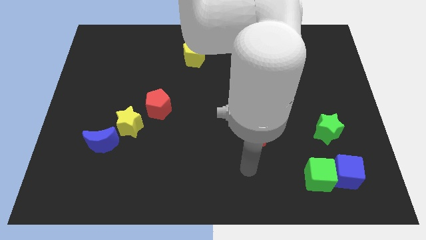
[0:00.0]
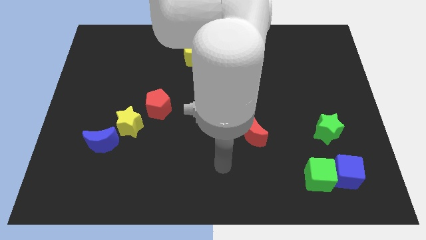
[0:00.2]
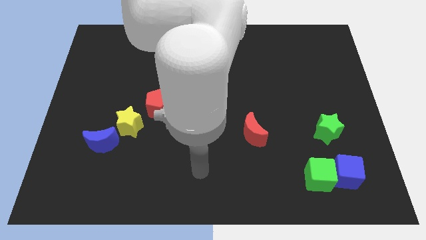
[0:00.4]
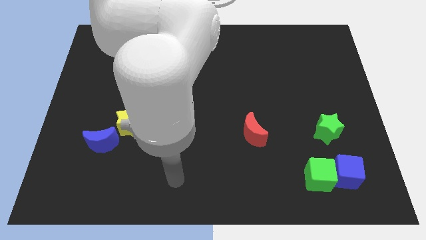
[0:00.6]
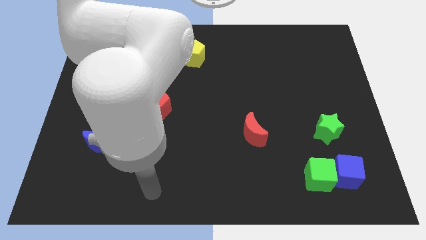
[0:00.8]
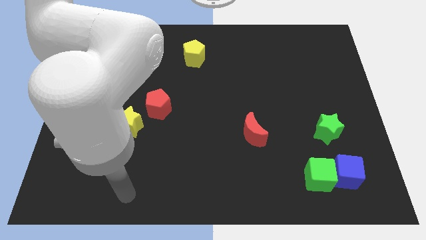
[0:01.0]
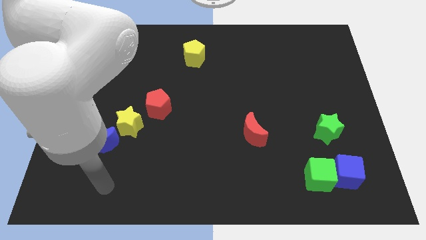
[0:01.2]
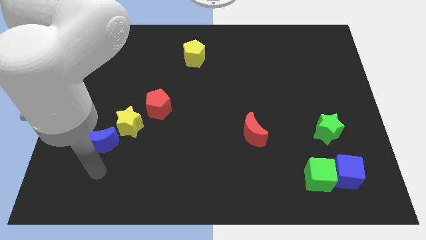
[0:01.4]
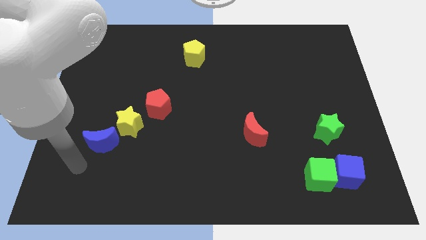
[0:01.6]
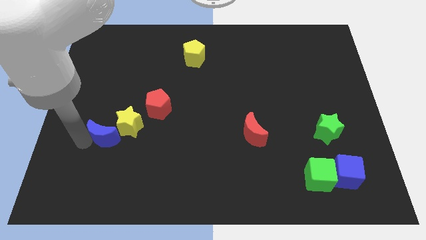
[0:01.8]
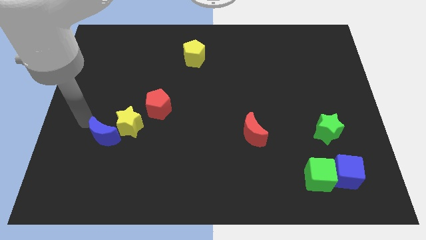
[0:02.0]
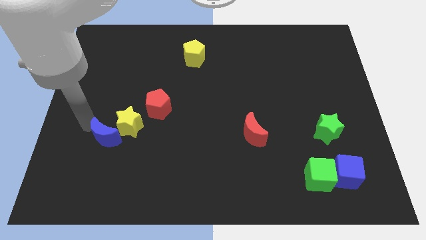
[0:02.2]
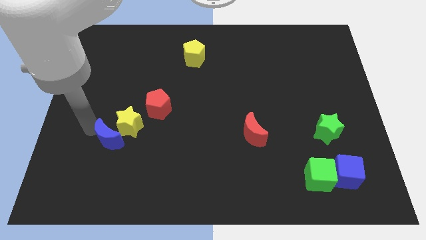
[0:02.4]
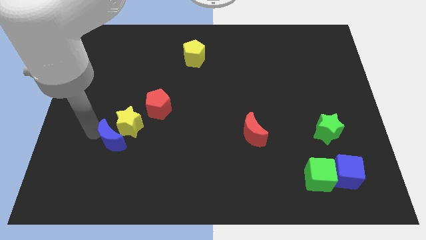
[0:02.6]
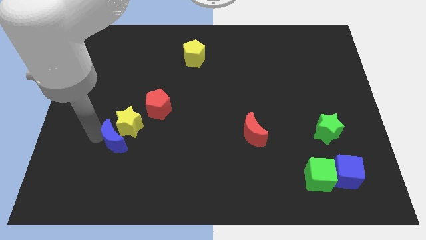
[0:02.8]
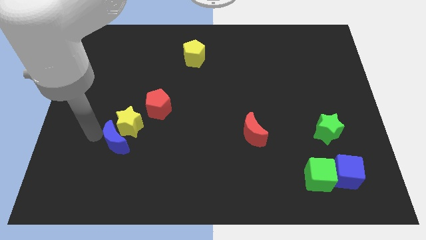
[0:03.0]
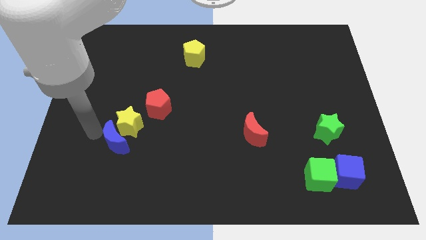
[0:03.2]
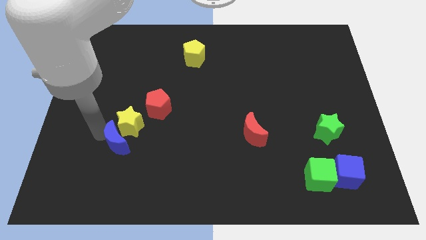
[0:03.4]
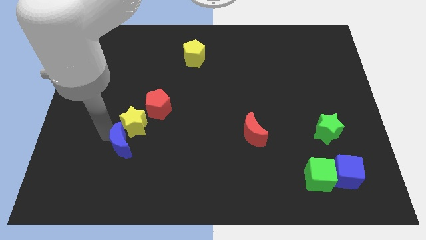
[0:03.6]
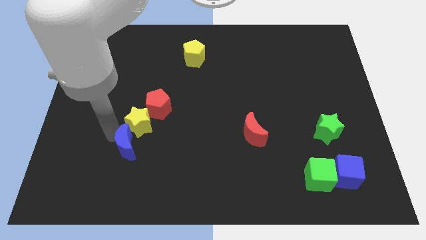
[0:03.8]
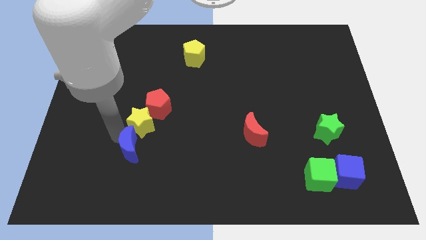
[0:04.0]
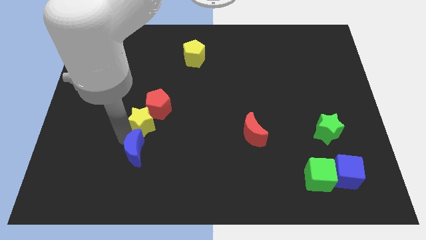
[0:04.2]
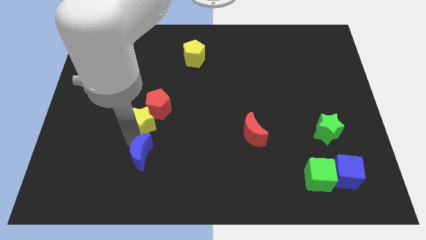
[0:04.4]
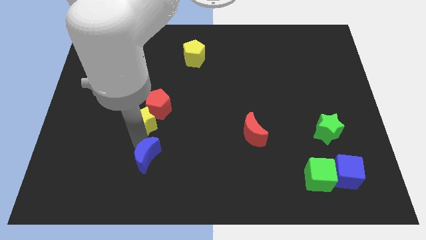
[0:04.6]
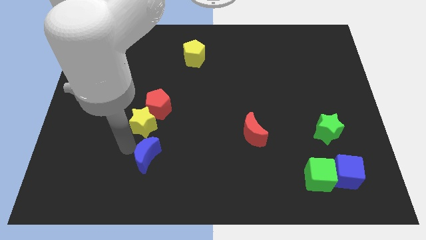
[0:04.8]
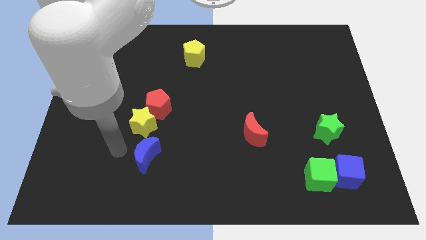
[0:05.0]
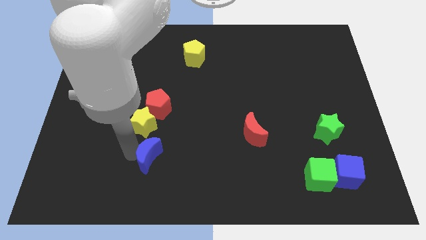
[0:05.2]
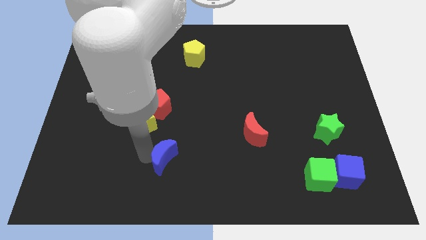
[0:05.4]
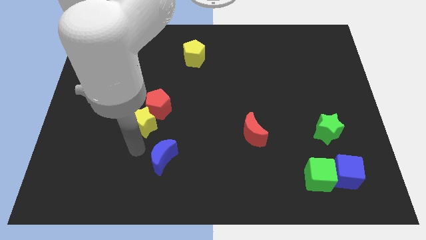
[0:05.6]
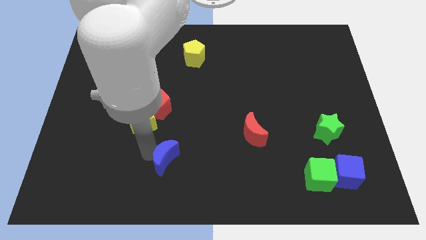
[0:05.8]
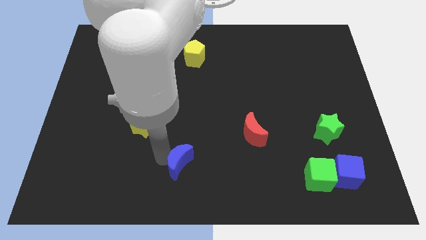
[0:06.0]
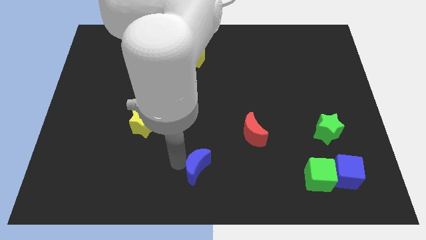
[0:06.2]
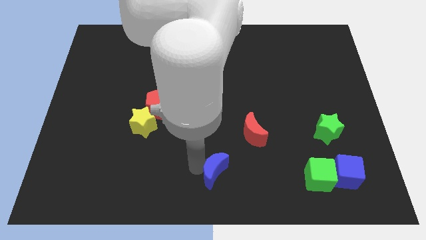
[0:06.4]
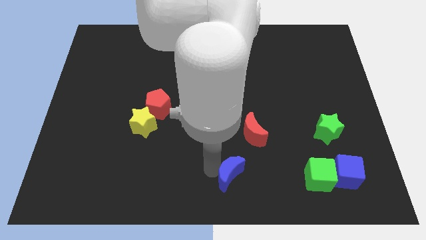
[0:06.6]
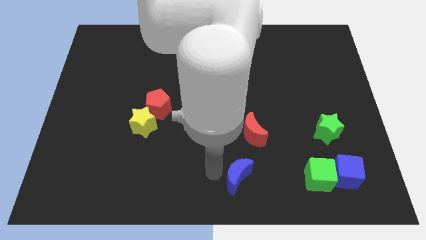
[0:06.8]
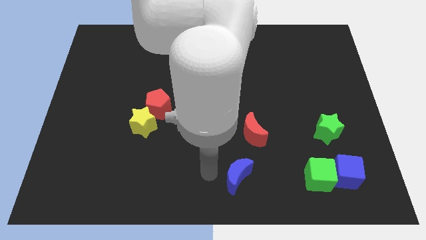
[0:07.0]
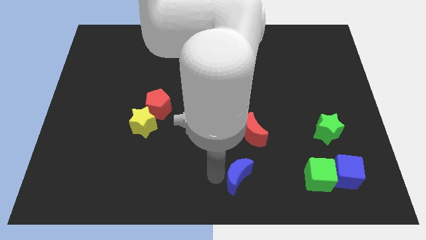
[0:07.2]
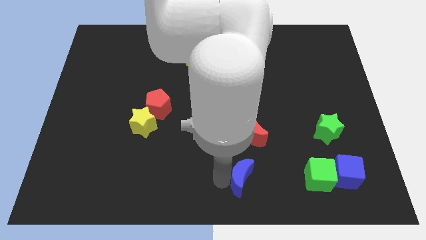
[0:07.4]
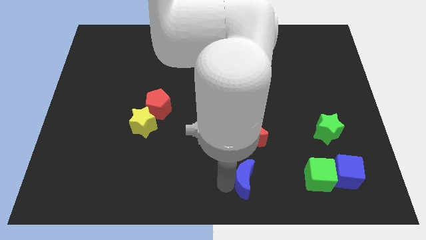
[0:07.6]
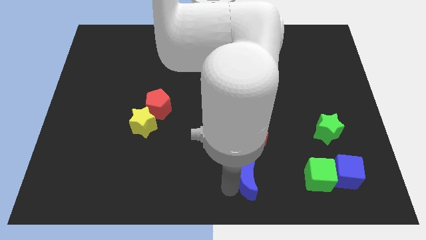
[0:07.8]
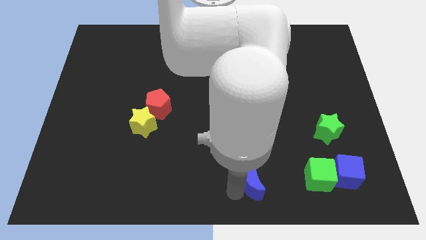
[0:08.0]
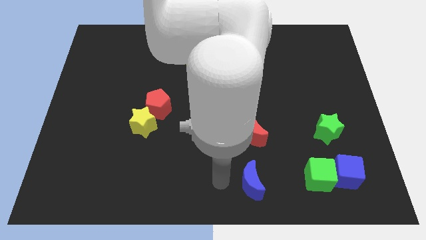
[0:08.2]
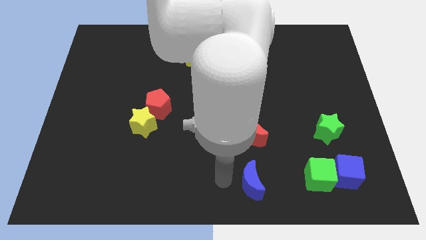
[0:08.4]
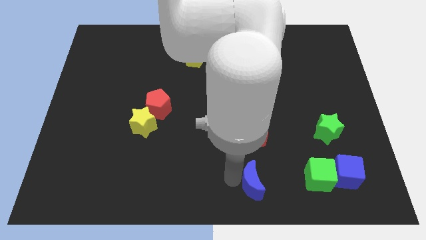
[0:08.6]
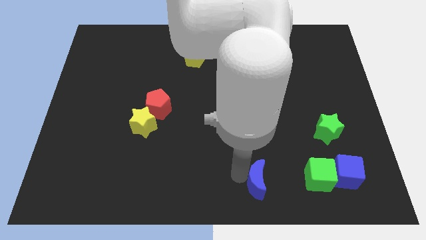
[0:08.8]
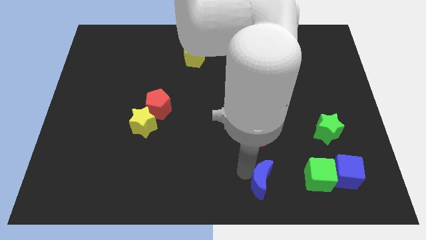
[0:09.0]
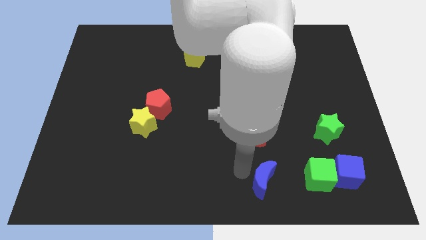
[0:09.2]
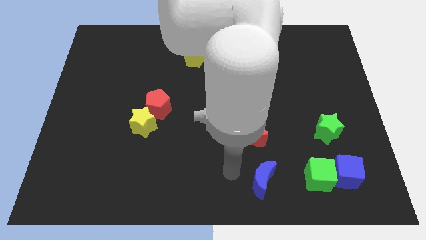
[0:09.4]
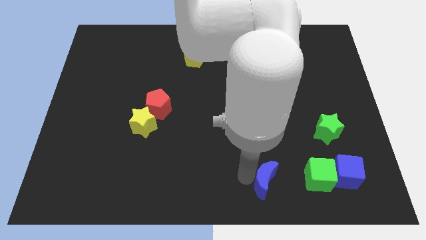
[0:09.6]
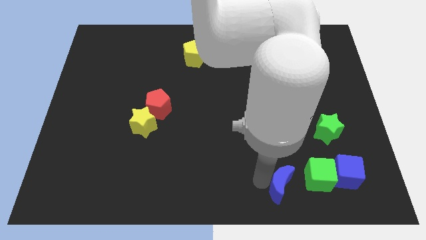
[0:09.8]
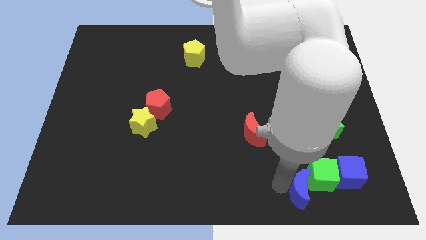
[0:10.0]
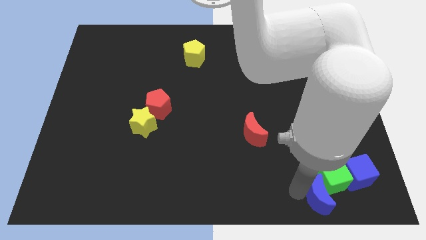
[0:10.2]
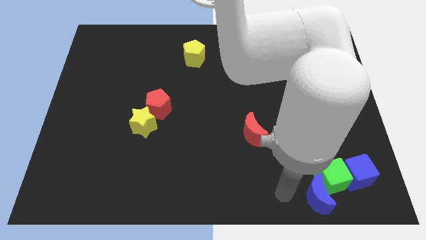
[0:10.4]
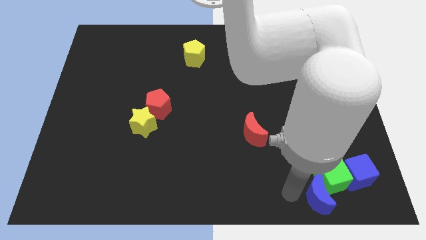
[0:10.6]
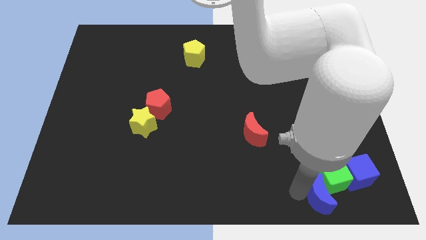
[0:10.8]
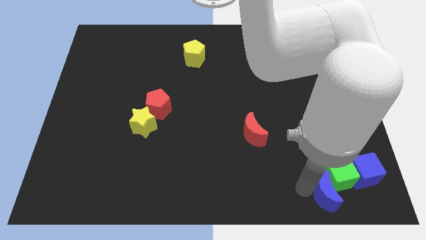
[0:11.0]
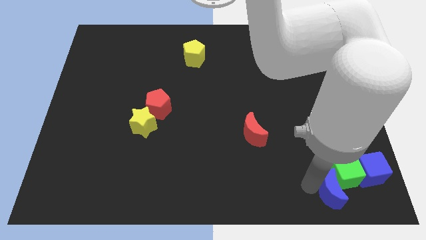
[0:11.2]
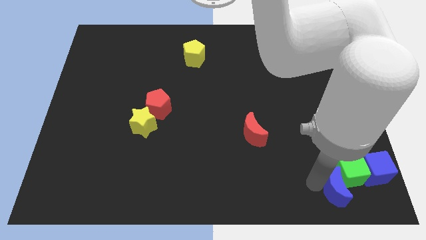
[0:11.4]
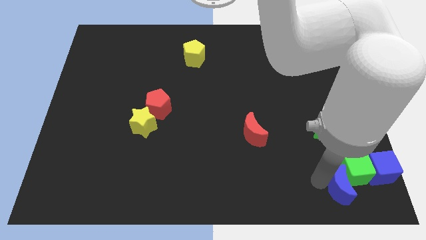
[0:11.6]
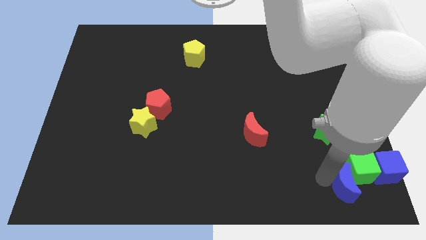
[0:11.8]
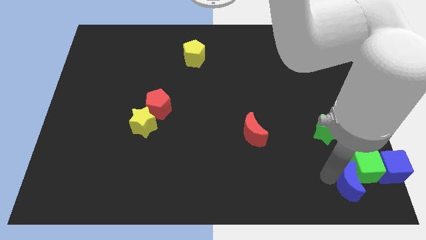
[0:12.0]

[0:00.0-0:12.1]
push the blue moon to the bottom right of the board

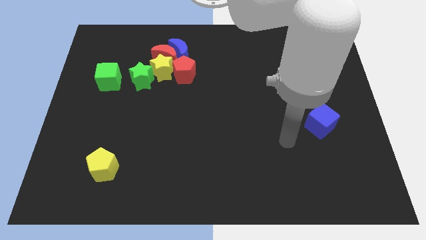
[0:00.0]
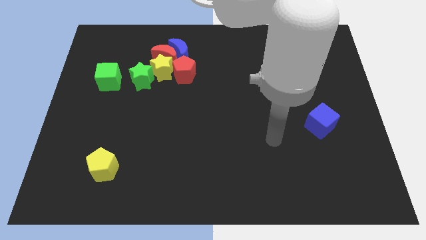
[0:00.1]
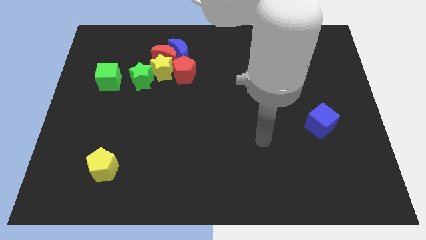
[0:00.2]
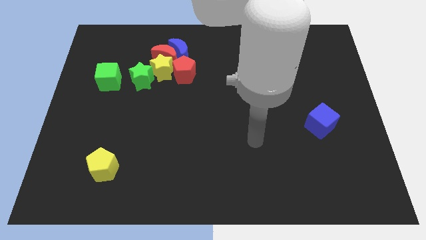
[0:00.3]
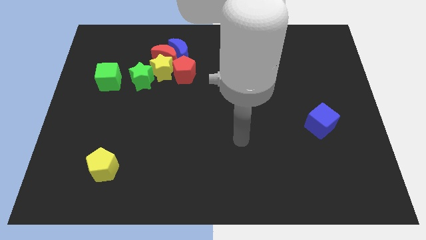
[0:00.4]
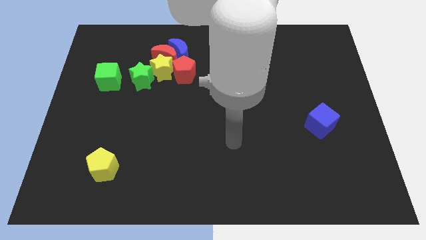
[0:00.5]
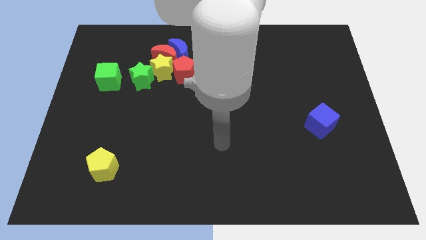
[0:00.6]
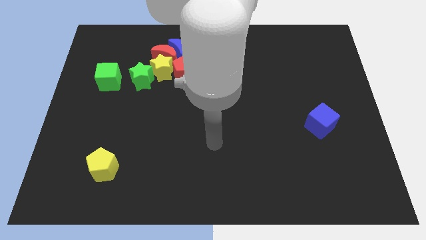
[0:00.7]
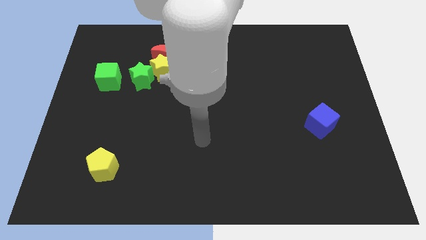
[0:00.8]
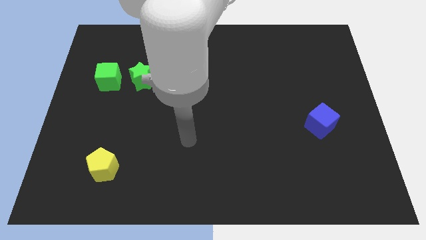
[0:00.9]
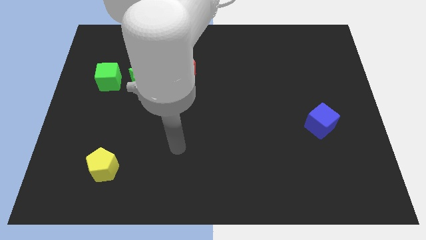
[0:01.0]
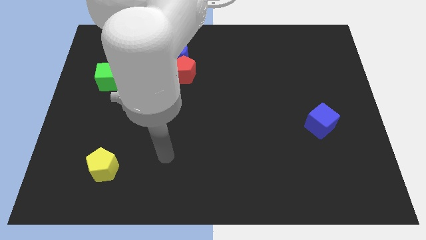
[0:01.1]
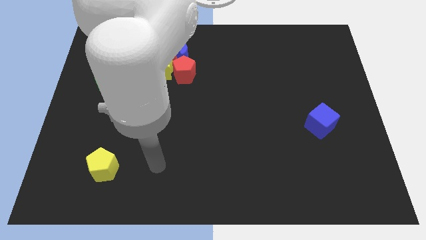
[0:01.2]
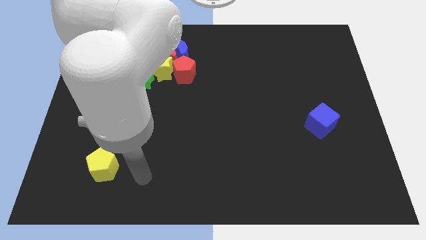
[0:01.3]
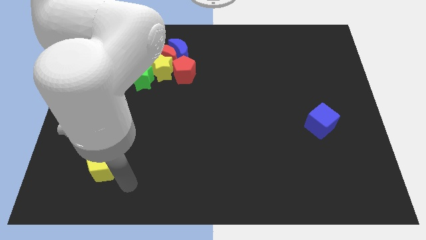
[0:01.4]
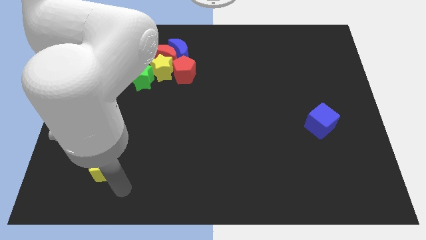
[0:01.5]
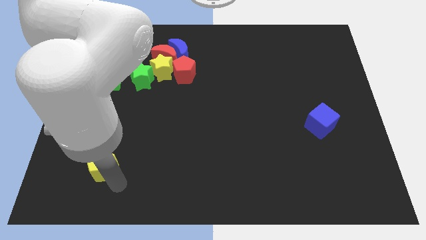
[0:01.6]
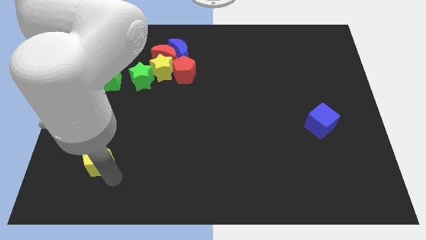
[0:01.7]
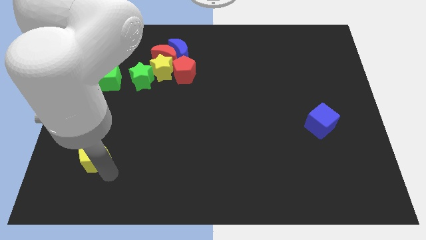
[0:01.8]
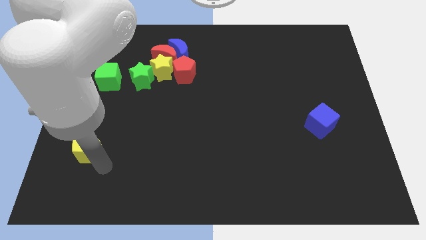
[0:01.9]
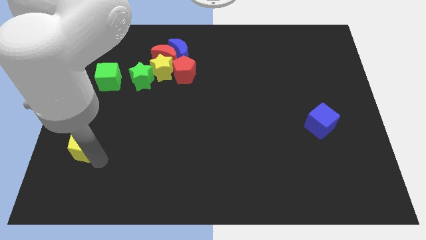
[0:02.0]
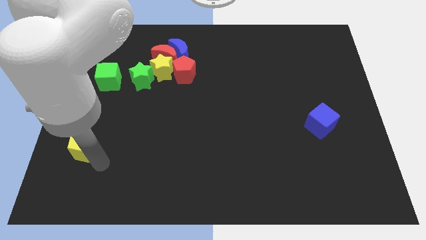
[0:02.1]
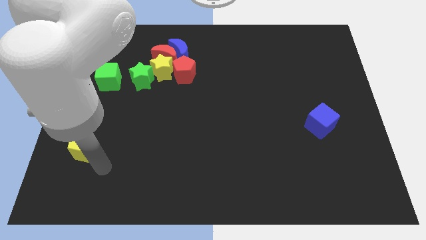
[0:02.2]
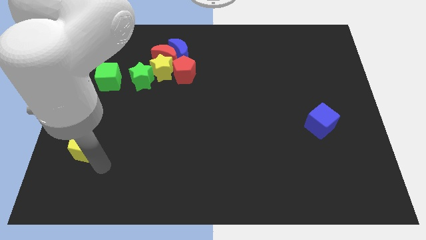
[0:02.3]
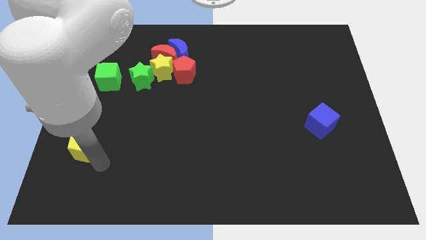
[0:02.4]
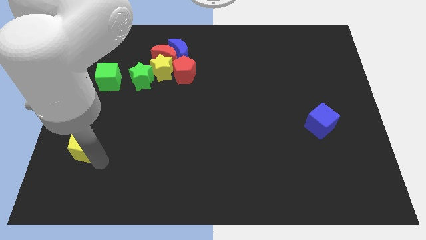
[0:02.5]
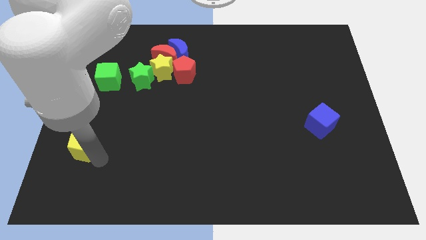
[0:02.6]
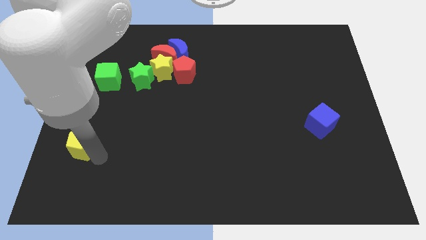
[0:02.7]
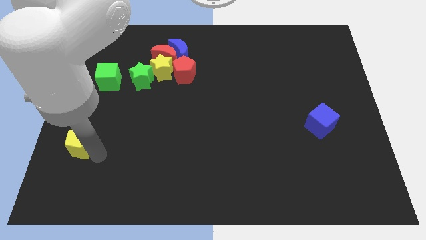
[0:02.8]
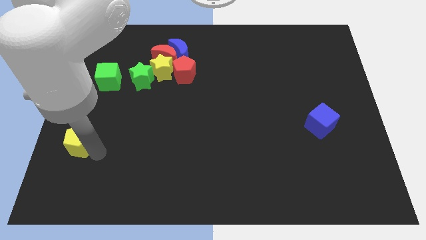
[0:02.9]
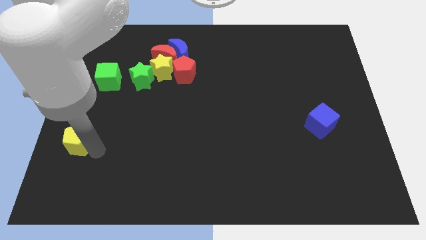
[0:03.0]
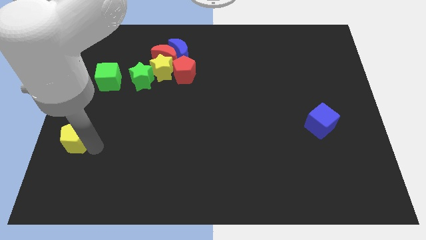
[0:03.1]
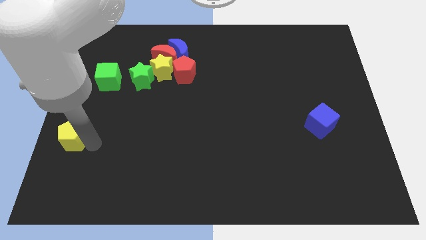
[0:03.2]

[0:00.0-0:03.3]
push the yellow pentagon to the center left
